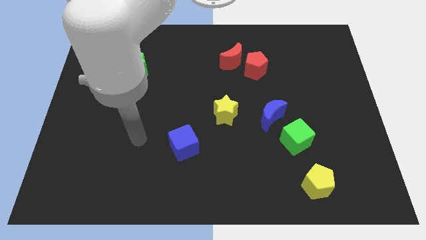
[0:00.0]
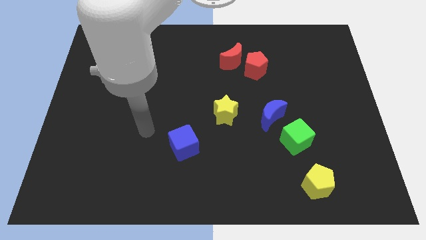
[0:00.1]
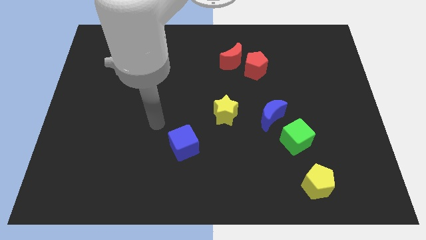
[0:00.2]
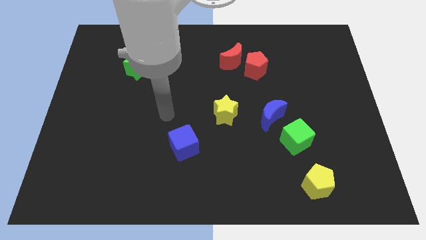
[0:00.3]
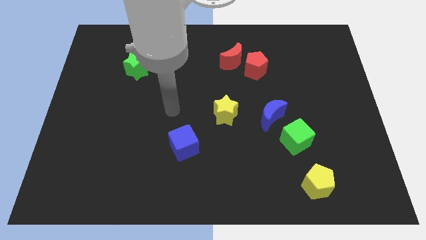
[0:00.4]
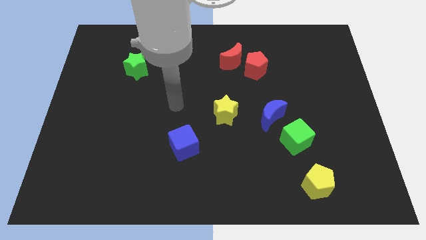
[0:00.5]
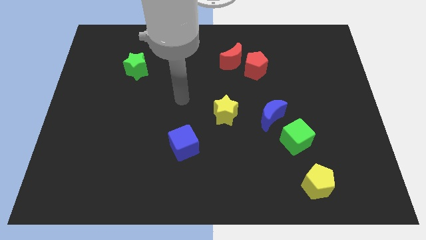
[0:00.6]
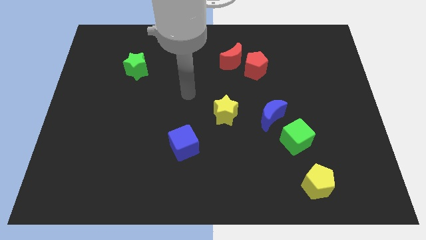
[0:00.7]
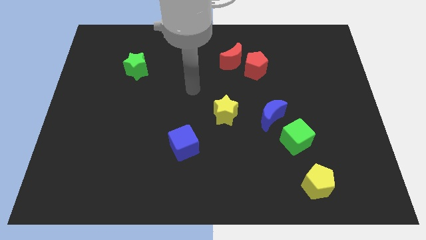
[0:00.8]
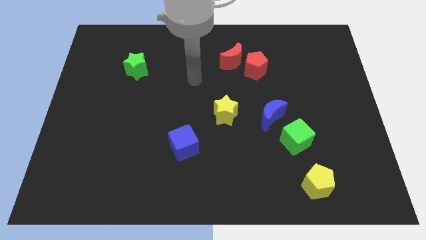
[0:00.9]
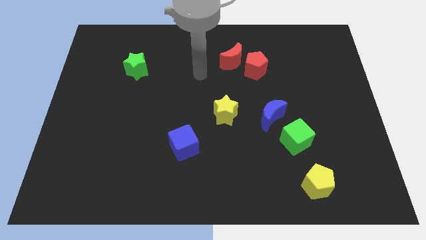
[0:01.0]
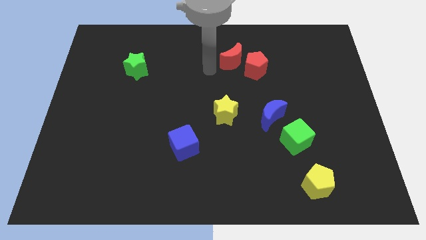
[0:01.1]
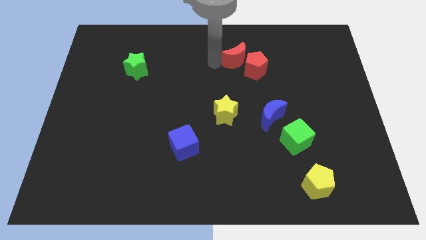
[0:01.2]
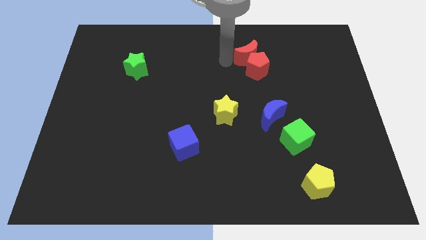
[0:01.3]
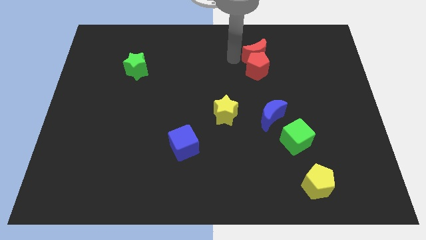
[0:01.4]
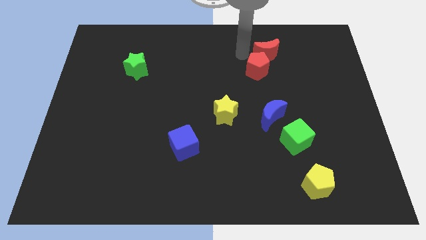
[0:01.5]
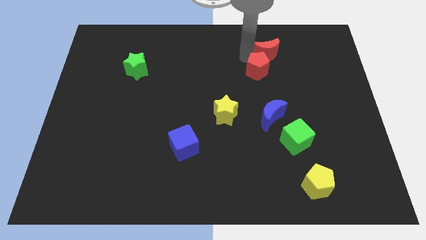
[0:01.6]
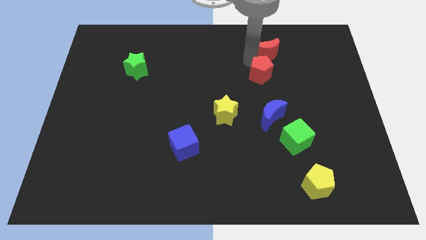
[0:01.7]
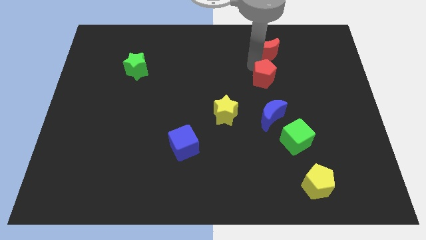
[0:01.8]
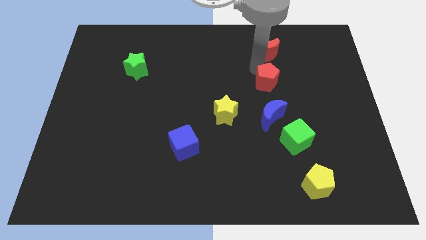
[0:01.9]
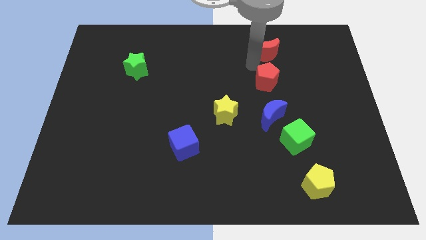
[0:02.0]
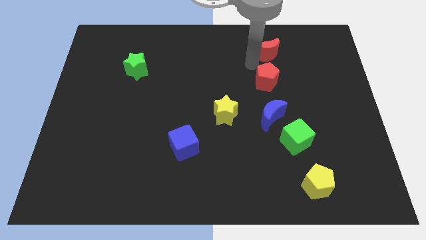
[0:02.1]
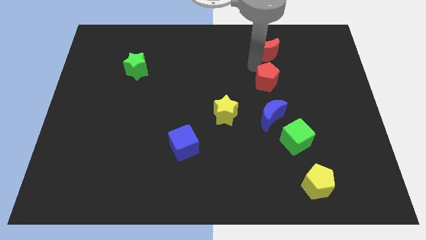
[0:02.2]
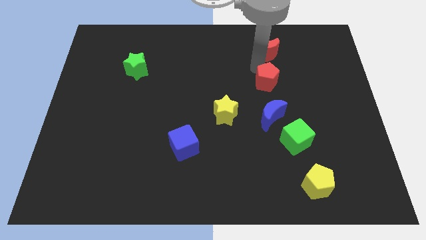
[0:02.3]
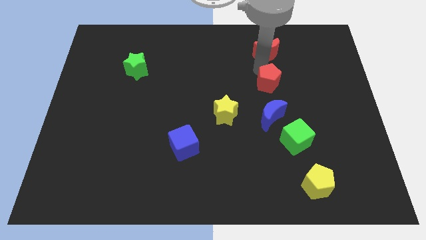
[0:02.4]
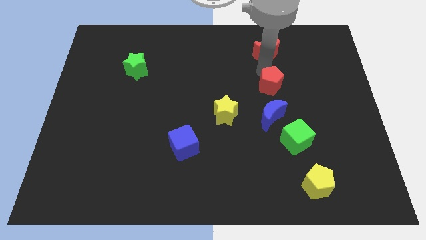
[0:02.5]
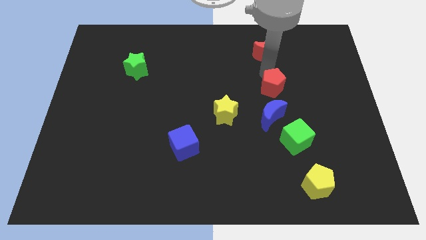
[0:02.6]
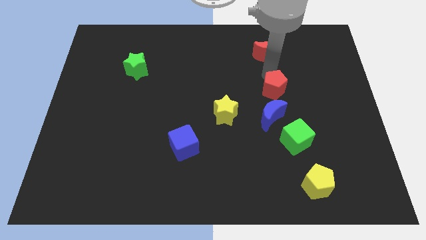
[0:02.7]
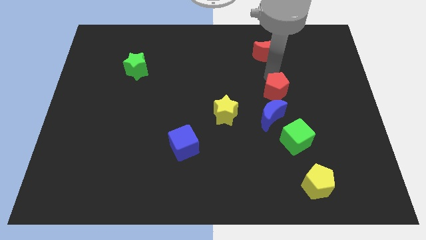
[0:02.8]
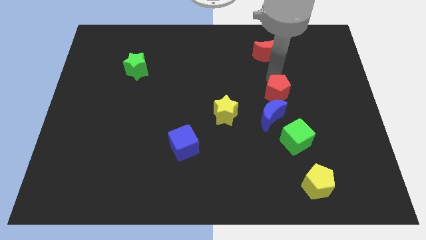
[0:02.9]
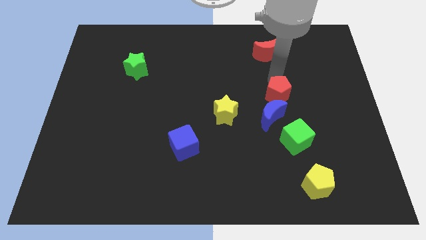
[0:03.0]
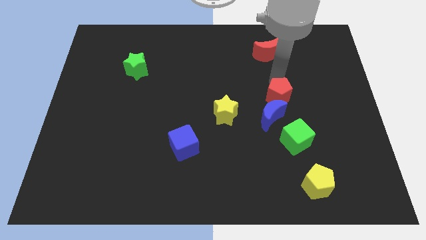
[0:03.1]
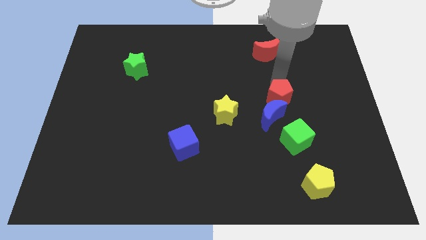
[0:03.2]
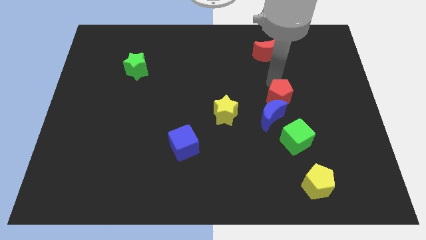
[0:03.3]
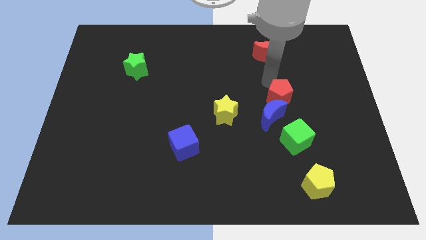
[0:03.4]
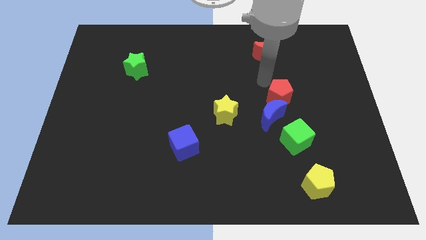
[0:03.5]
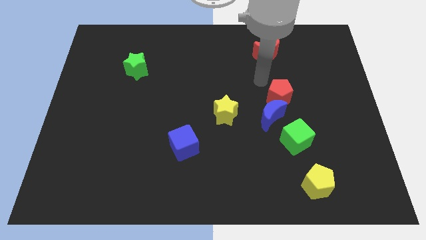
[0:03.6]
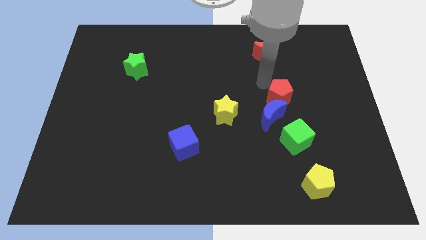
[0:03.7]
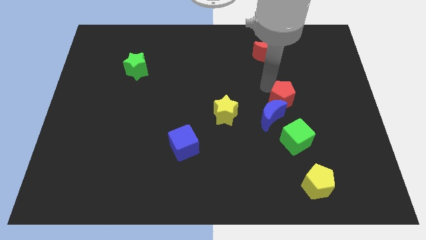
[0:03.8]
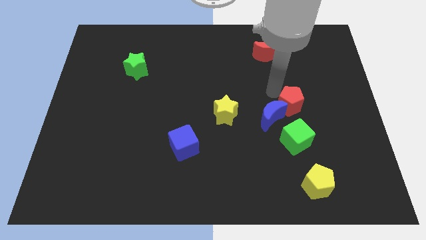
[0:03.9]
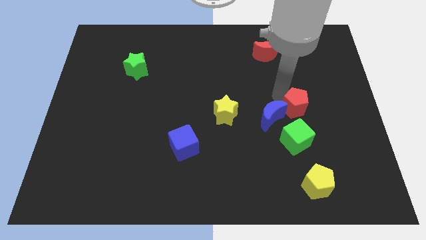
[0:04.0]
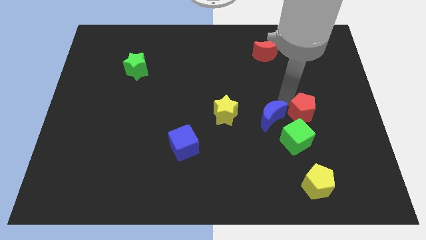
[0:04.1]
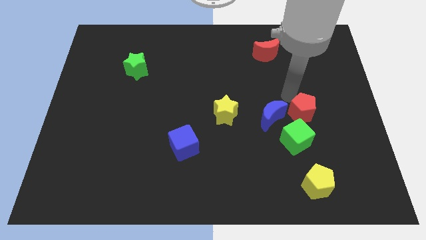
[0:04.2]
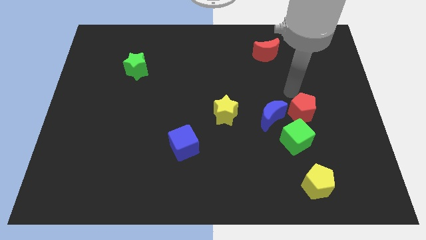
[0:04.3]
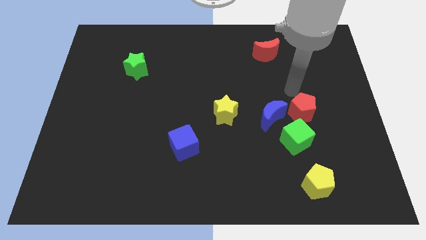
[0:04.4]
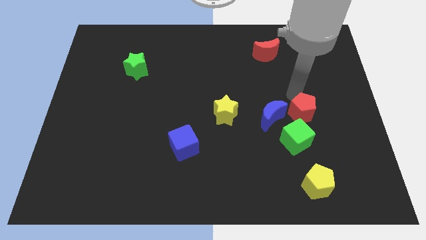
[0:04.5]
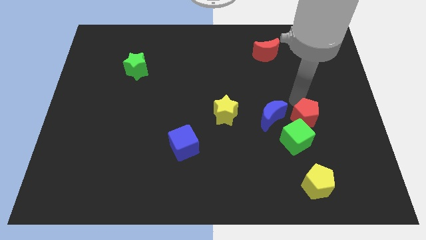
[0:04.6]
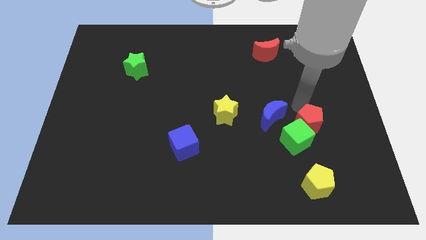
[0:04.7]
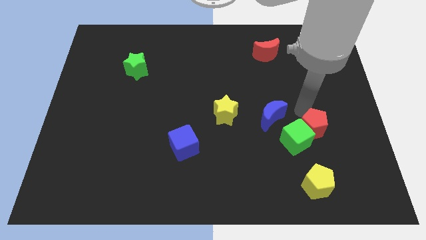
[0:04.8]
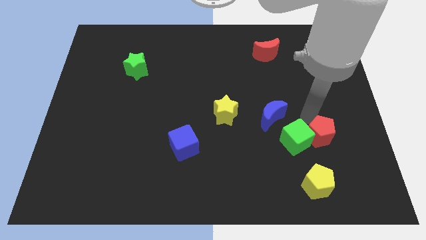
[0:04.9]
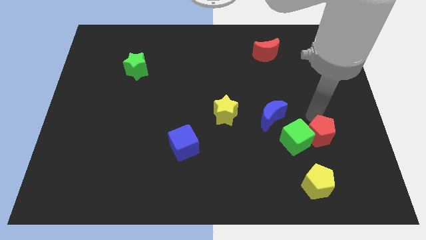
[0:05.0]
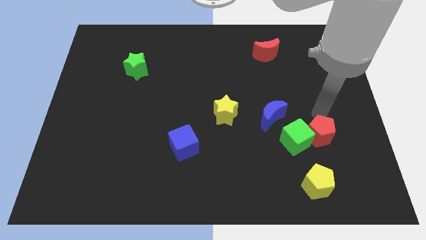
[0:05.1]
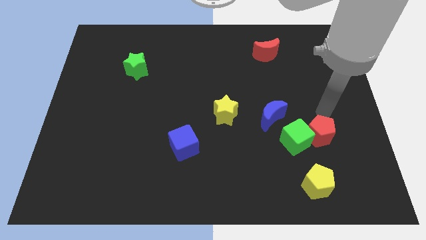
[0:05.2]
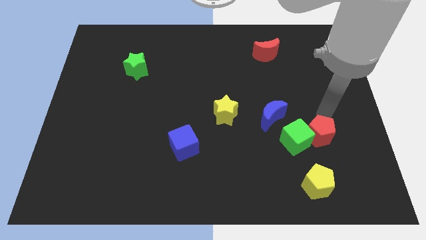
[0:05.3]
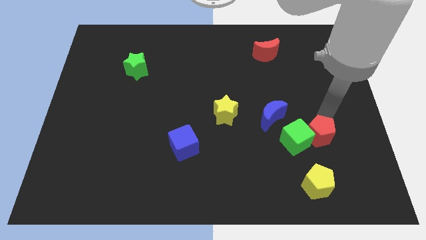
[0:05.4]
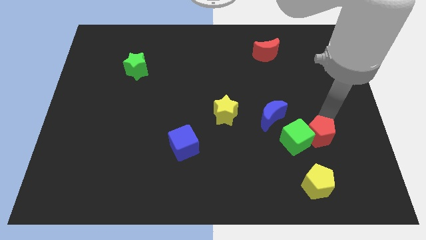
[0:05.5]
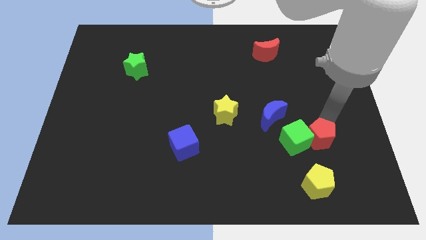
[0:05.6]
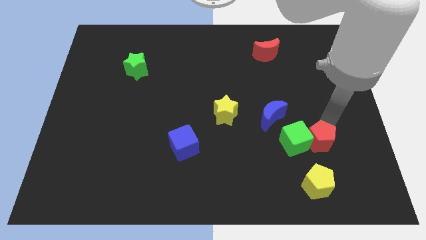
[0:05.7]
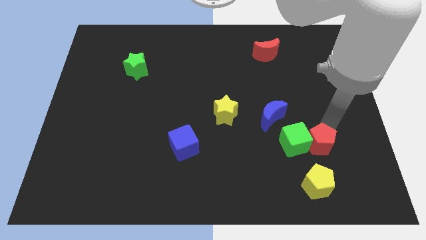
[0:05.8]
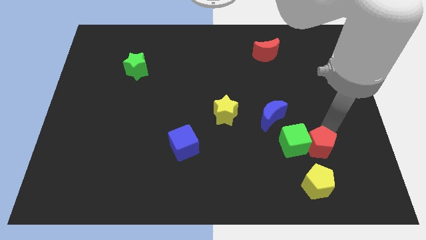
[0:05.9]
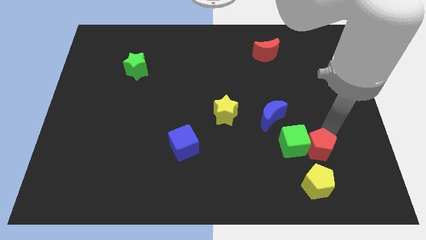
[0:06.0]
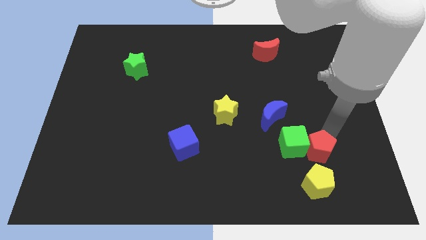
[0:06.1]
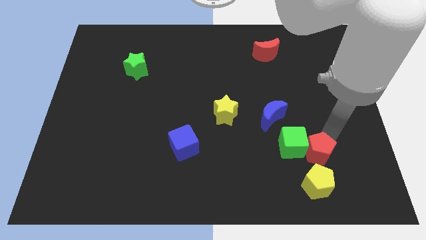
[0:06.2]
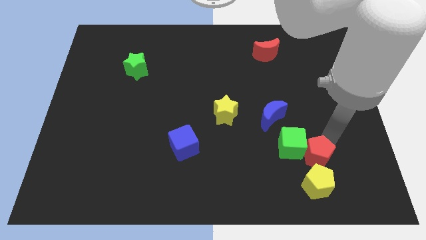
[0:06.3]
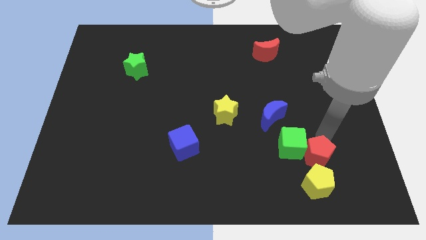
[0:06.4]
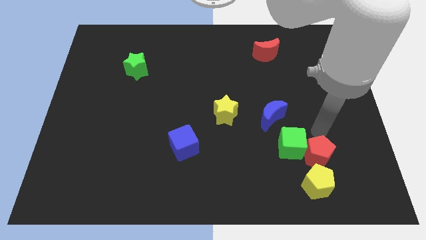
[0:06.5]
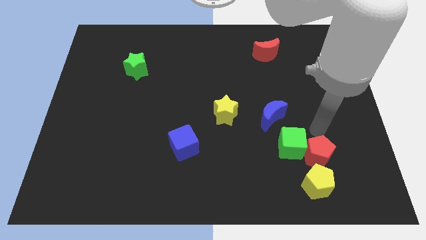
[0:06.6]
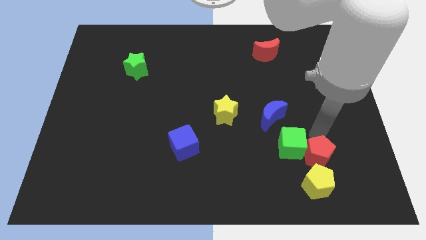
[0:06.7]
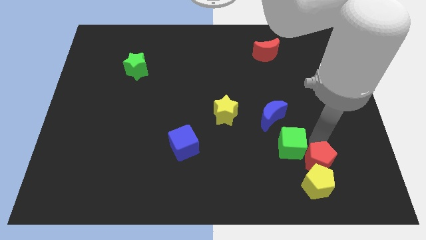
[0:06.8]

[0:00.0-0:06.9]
slide the red pentagon next to the yellow pentagon
